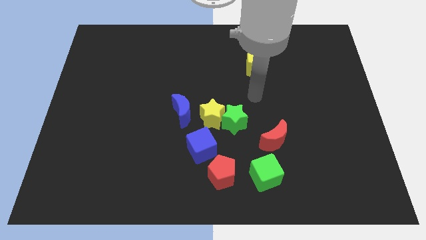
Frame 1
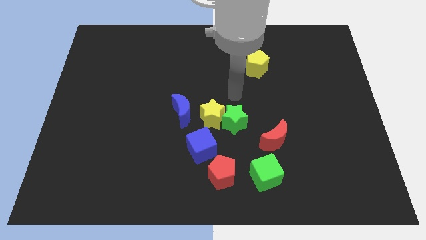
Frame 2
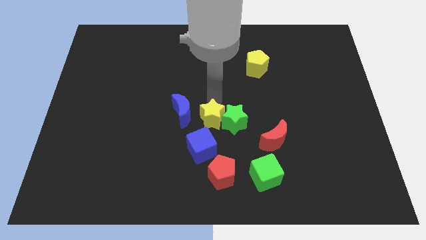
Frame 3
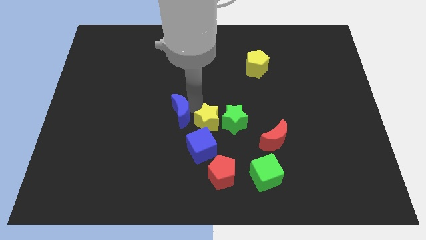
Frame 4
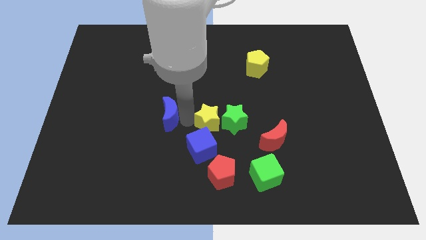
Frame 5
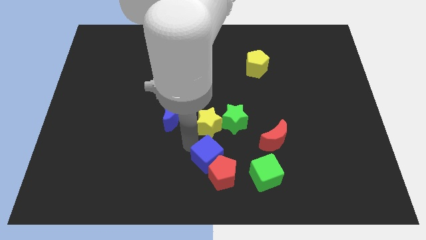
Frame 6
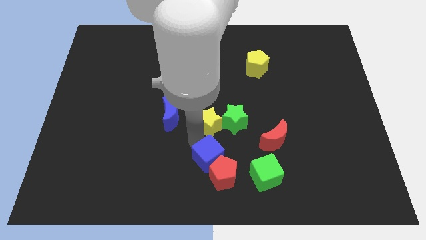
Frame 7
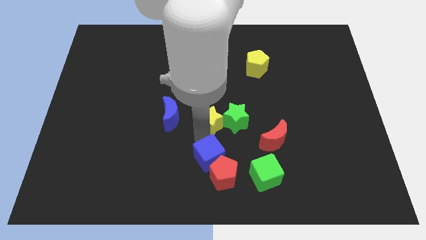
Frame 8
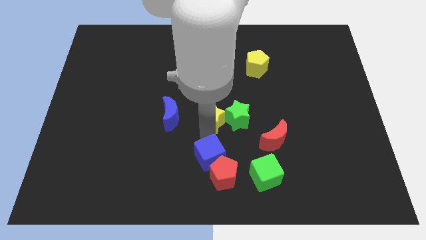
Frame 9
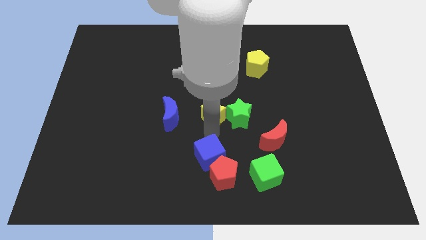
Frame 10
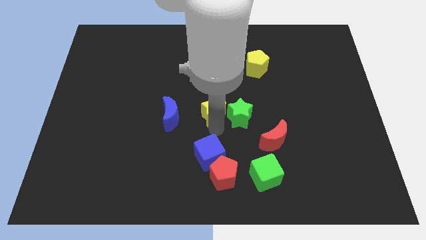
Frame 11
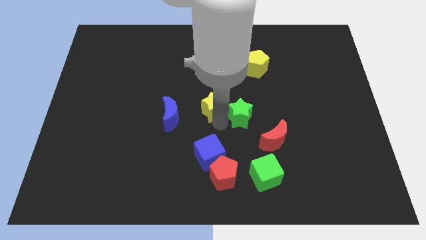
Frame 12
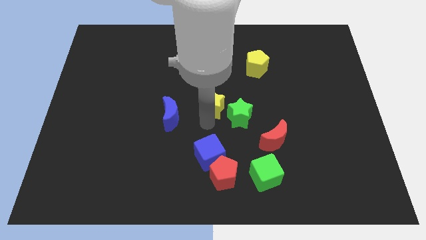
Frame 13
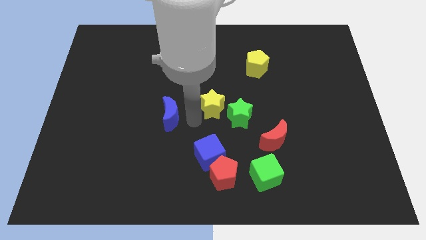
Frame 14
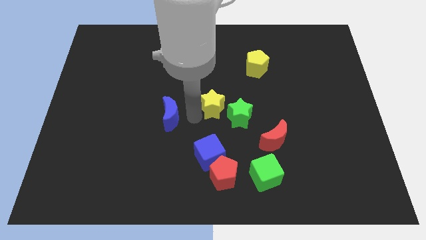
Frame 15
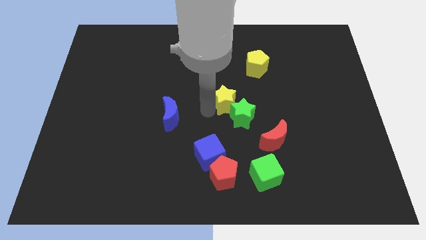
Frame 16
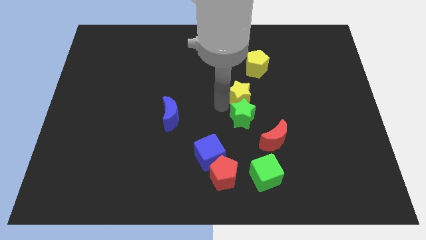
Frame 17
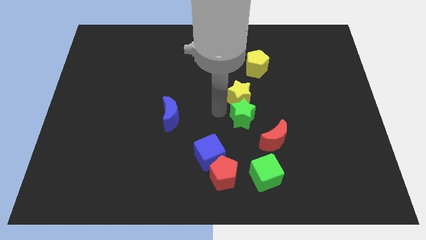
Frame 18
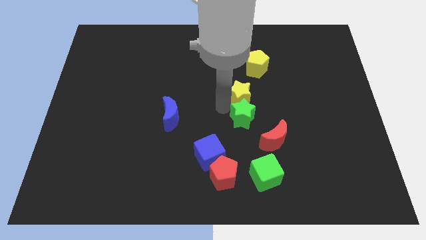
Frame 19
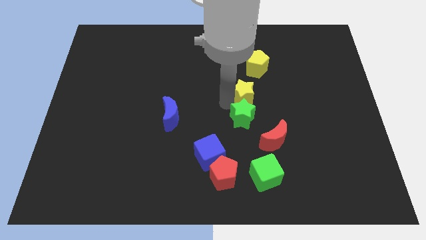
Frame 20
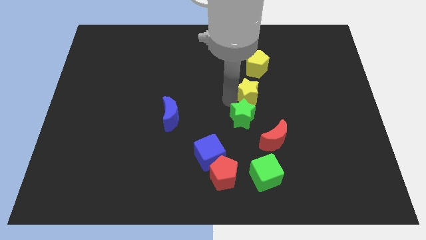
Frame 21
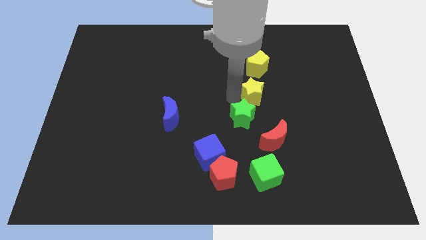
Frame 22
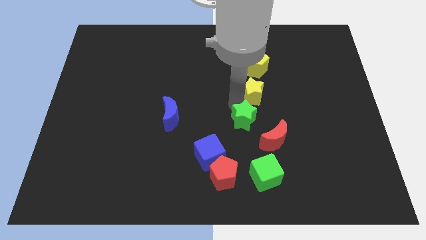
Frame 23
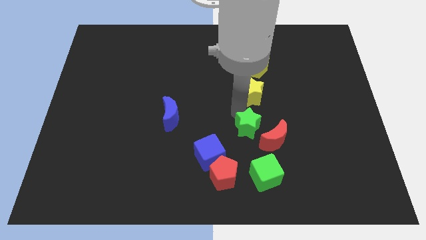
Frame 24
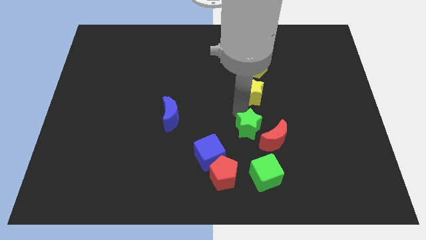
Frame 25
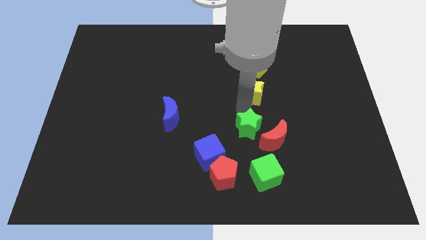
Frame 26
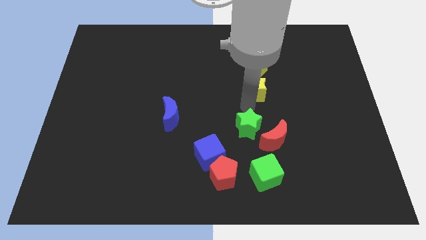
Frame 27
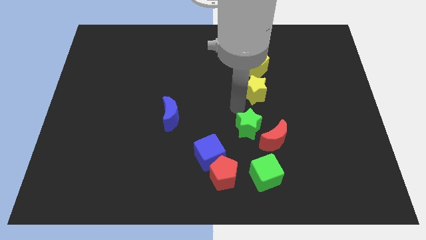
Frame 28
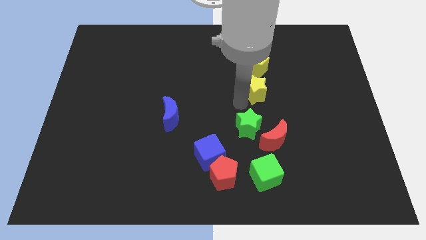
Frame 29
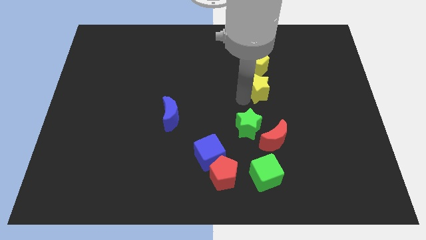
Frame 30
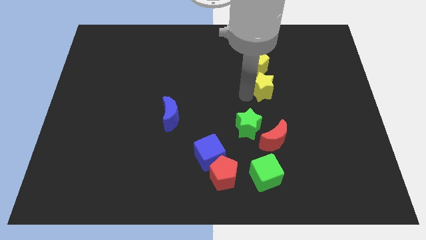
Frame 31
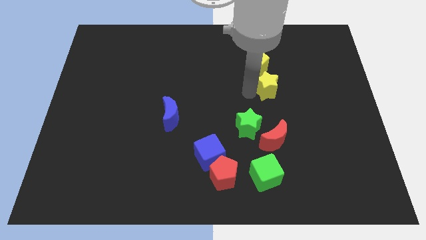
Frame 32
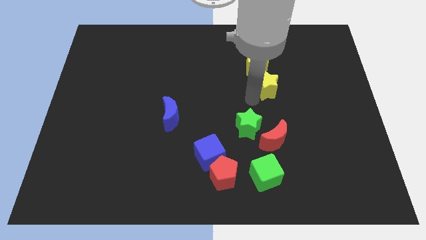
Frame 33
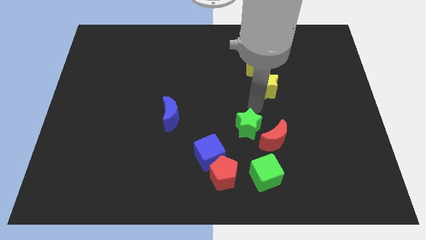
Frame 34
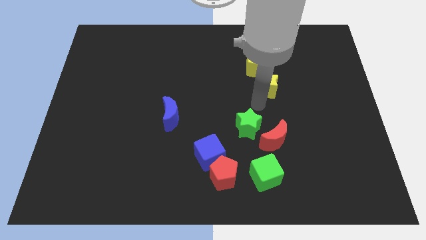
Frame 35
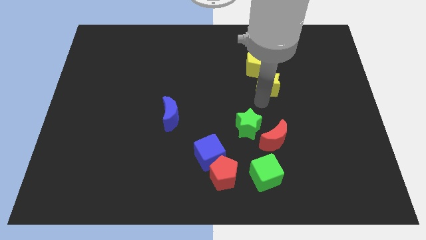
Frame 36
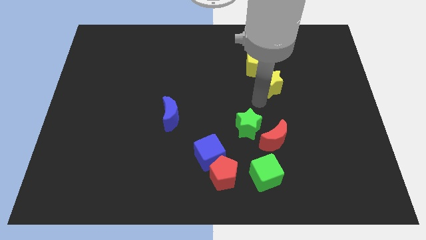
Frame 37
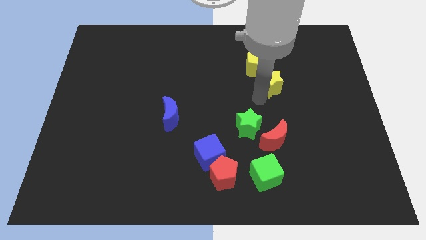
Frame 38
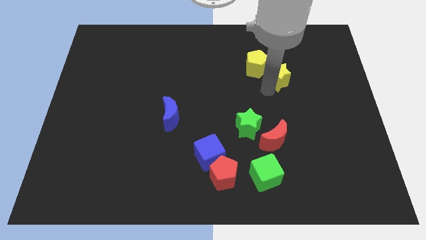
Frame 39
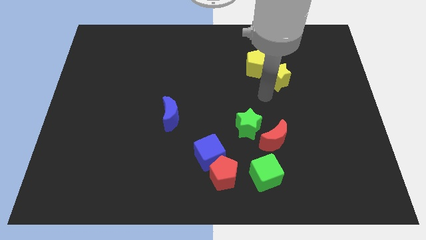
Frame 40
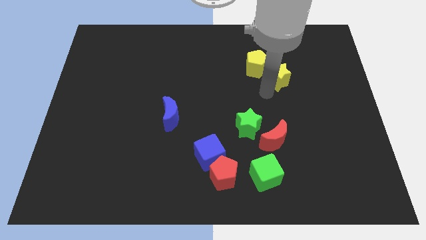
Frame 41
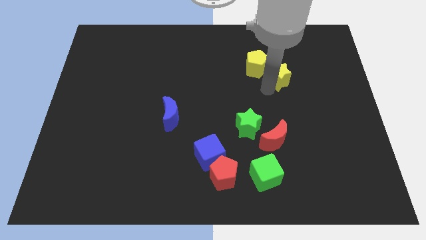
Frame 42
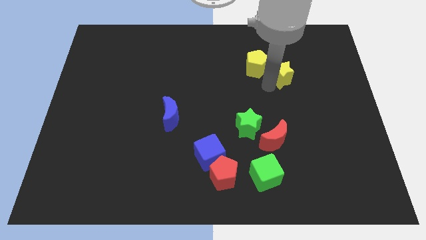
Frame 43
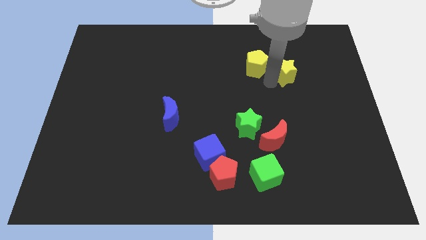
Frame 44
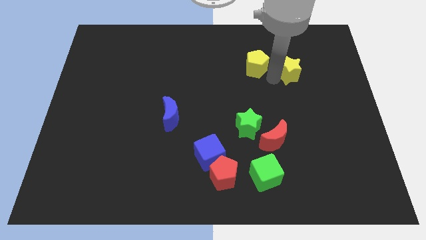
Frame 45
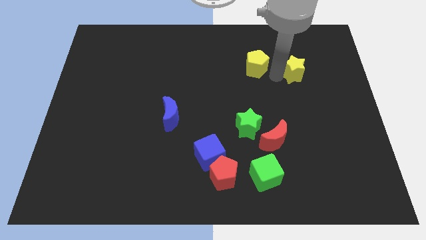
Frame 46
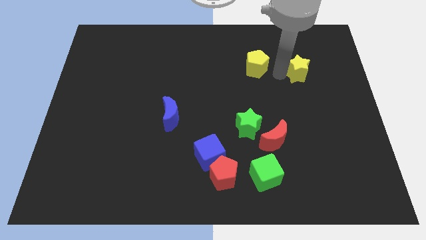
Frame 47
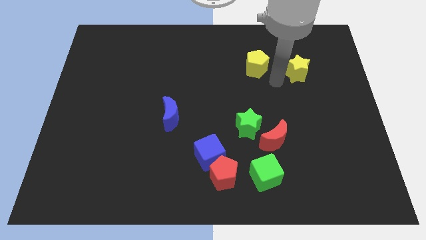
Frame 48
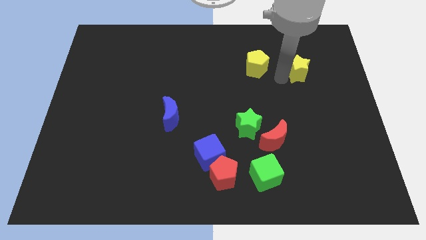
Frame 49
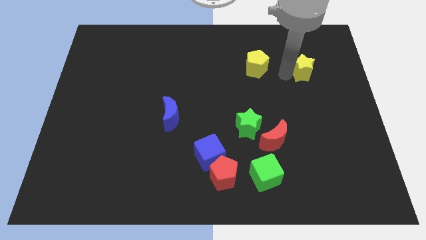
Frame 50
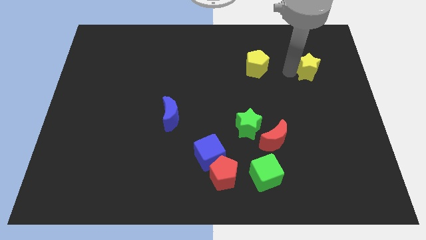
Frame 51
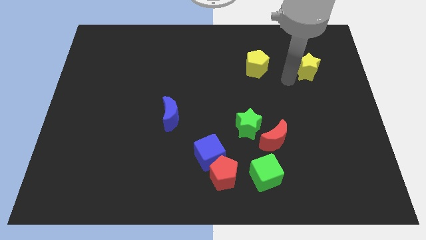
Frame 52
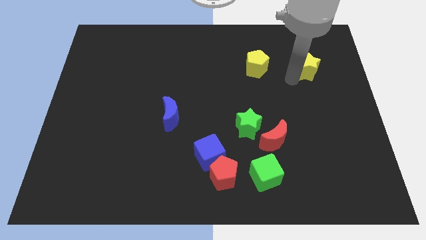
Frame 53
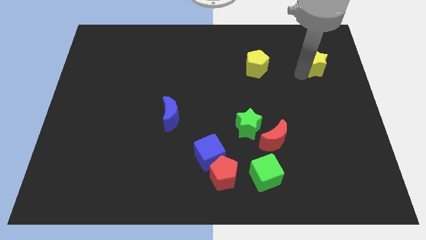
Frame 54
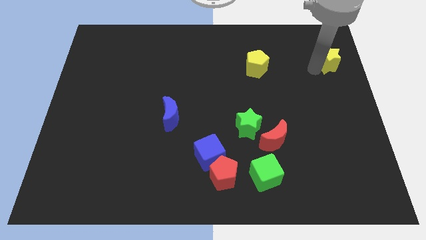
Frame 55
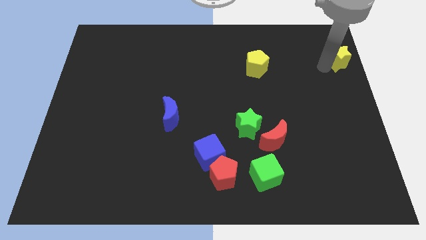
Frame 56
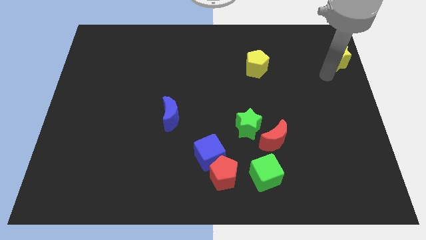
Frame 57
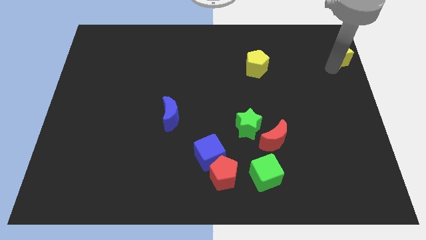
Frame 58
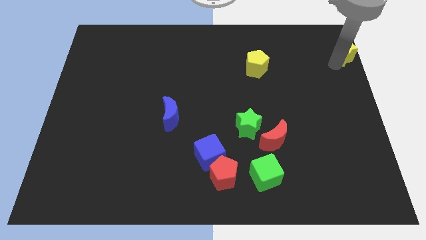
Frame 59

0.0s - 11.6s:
slide the yellow star to the top right corner
